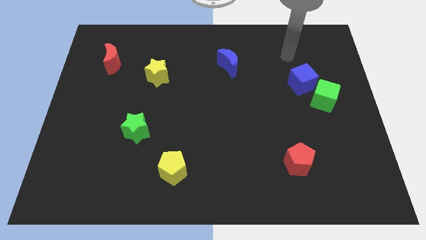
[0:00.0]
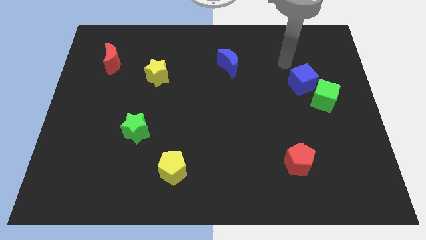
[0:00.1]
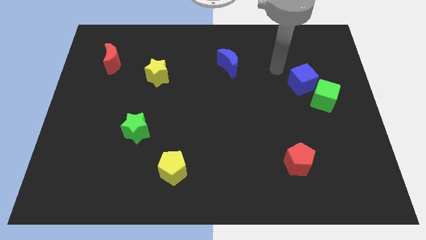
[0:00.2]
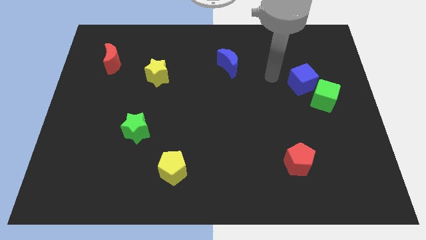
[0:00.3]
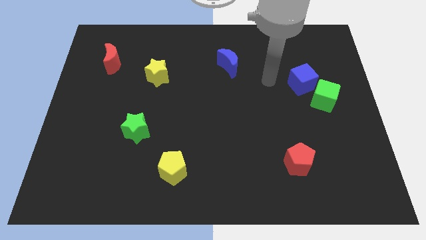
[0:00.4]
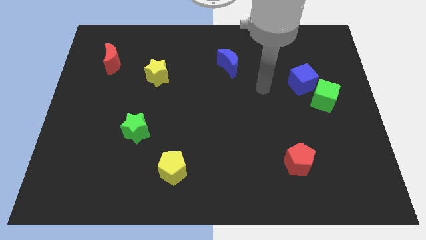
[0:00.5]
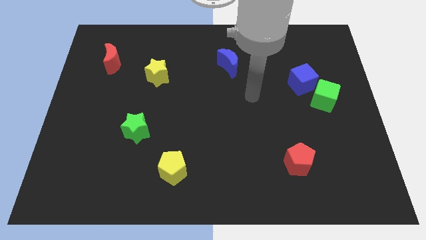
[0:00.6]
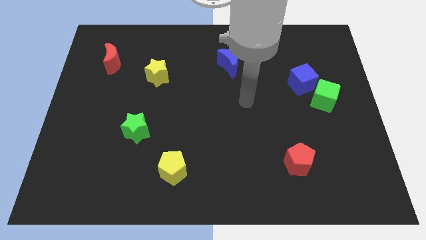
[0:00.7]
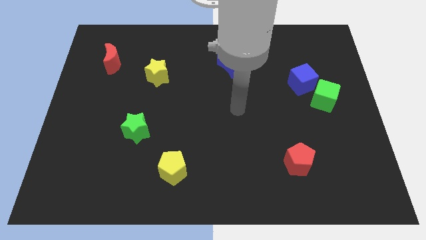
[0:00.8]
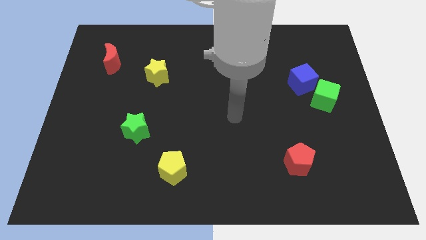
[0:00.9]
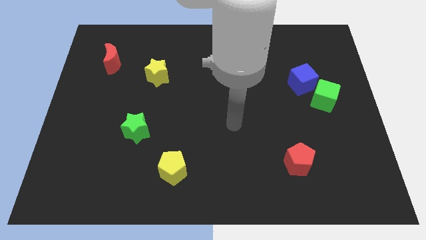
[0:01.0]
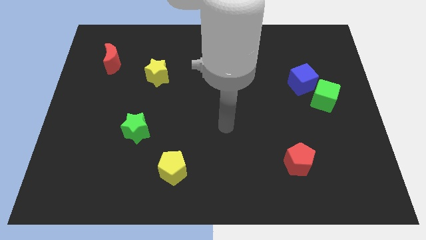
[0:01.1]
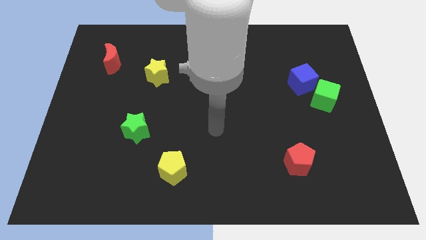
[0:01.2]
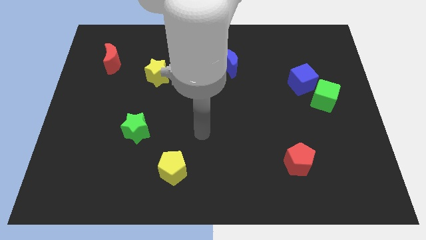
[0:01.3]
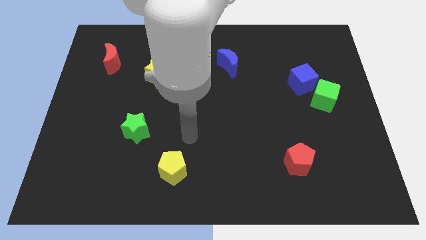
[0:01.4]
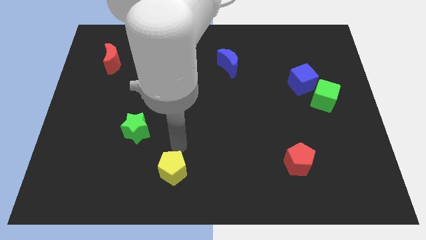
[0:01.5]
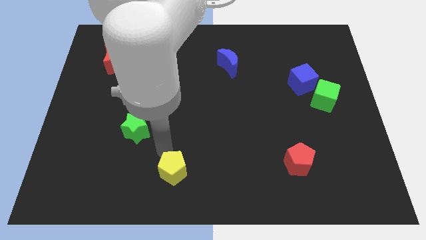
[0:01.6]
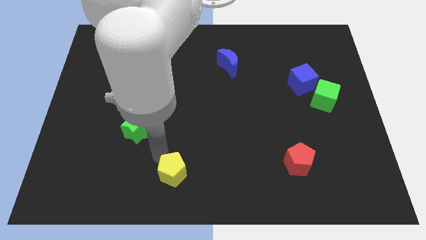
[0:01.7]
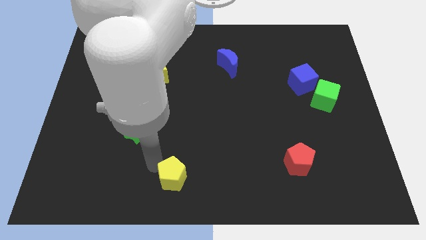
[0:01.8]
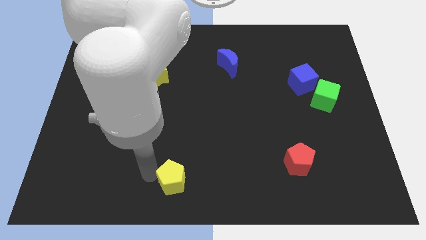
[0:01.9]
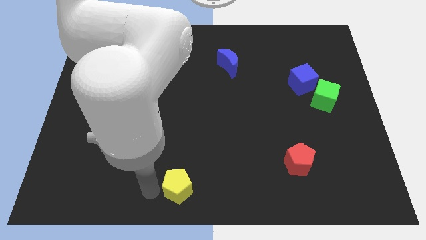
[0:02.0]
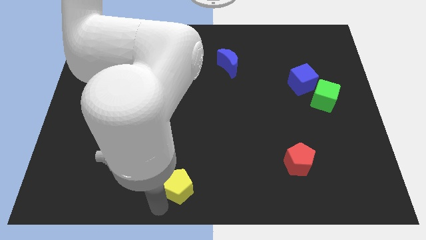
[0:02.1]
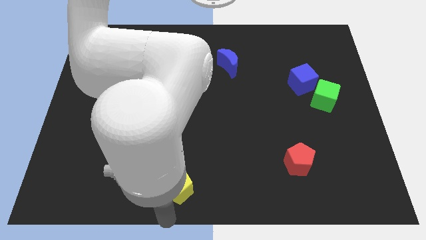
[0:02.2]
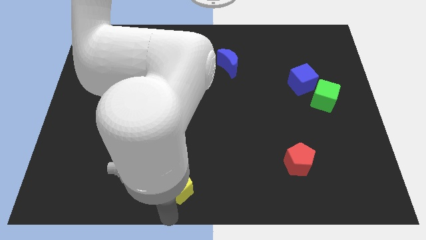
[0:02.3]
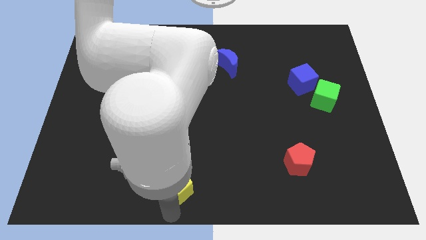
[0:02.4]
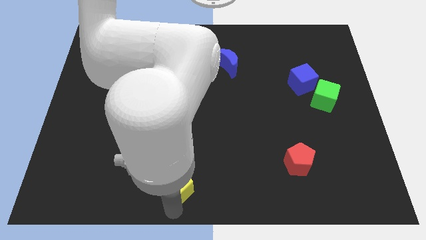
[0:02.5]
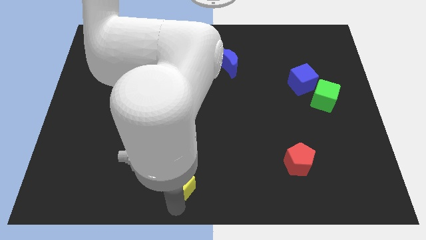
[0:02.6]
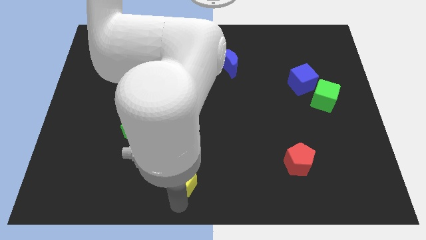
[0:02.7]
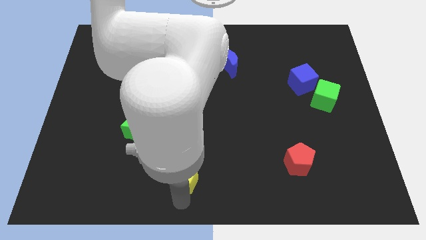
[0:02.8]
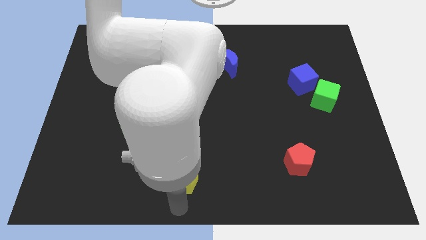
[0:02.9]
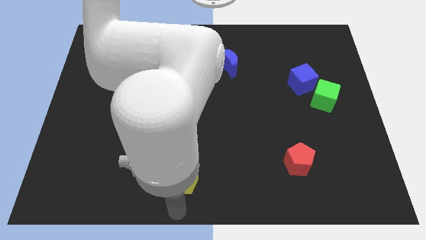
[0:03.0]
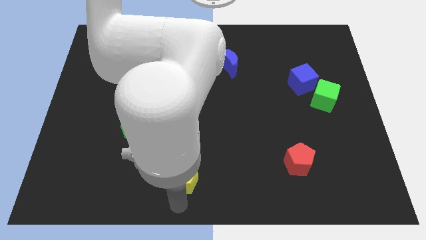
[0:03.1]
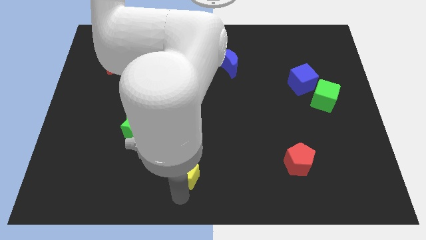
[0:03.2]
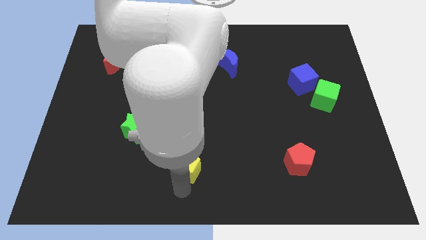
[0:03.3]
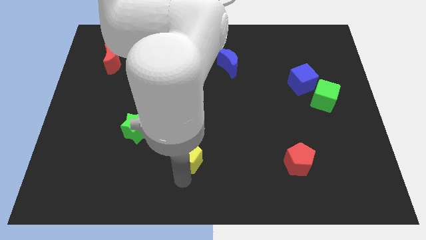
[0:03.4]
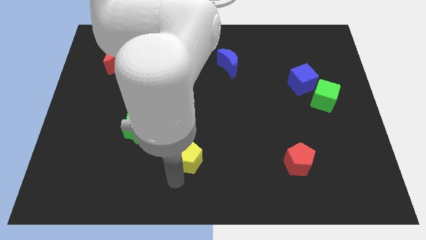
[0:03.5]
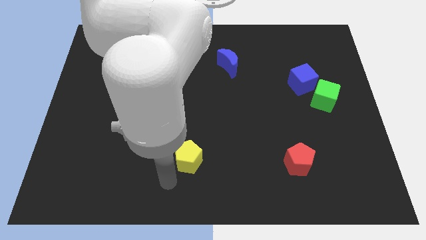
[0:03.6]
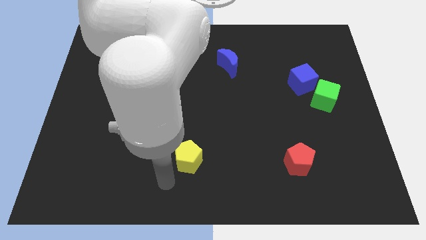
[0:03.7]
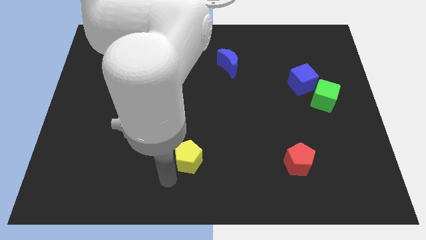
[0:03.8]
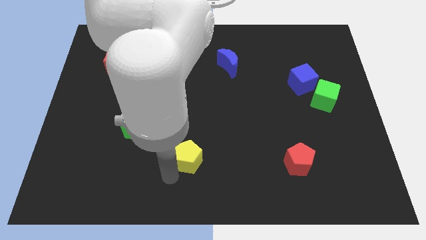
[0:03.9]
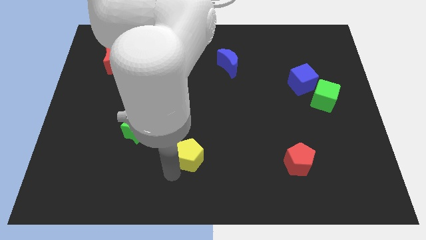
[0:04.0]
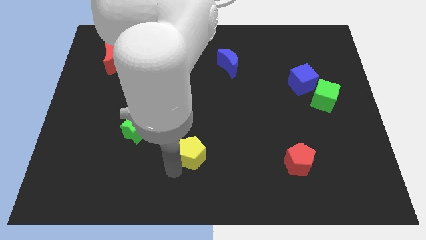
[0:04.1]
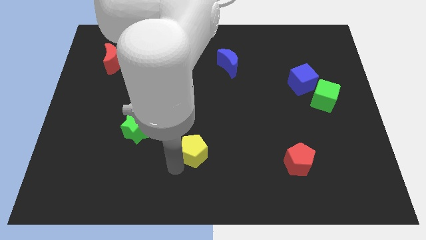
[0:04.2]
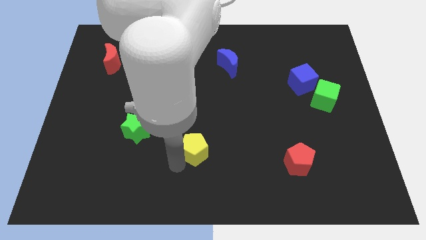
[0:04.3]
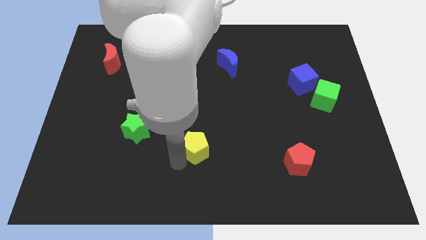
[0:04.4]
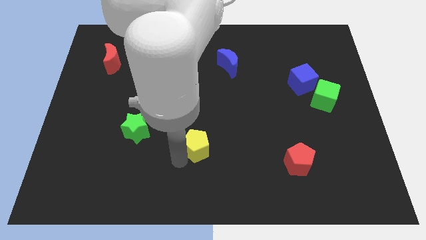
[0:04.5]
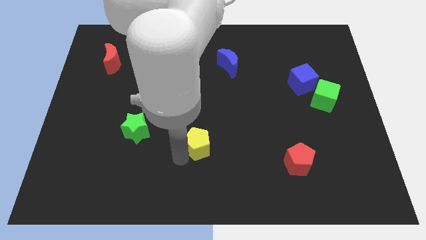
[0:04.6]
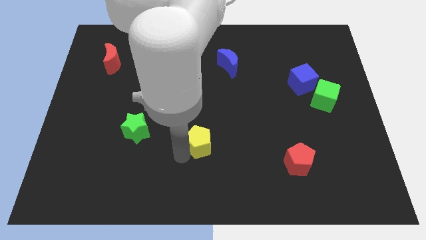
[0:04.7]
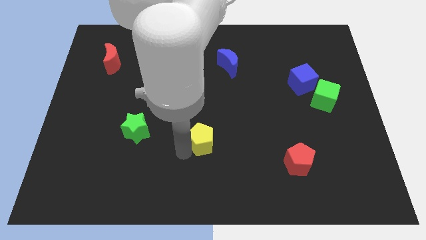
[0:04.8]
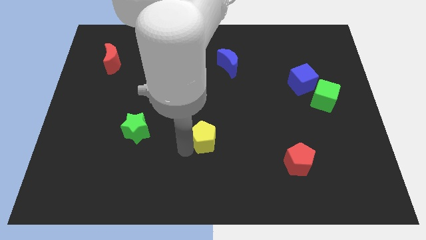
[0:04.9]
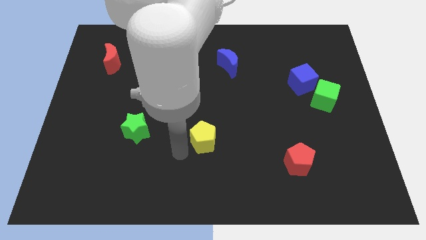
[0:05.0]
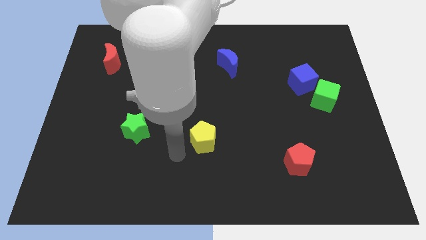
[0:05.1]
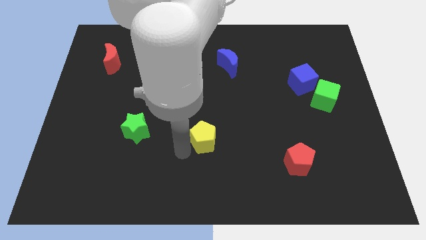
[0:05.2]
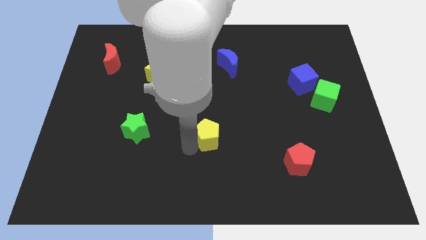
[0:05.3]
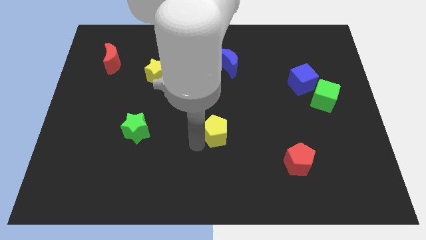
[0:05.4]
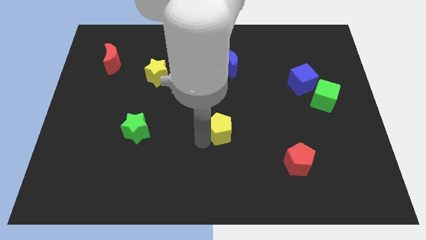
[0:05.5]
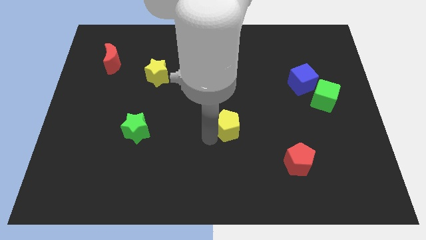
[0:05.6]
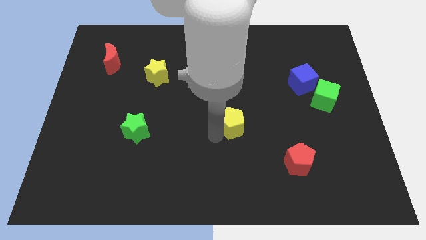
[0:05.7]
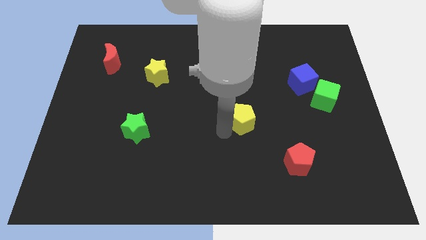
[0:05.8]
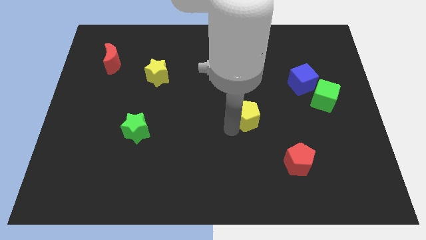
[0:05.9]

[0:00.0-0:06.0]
slide the yellow pentagon upwards and right

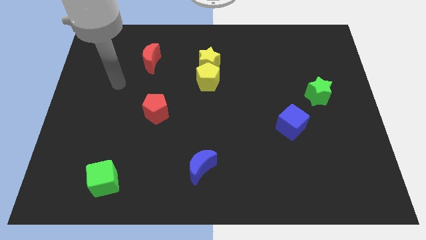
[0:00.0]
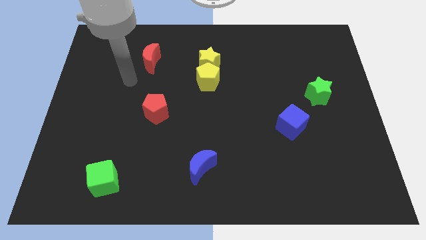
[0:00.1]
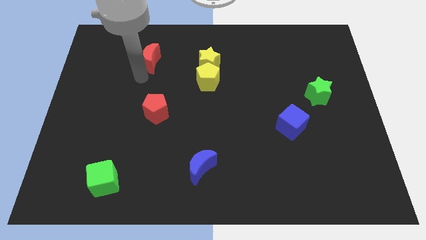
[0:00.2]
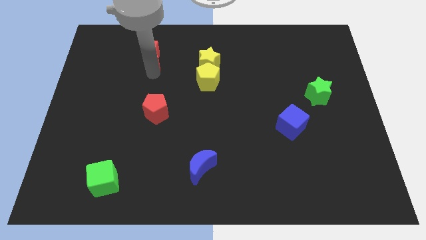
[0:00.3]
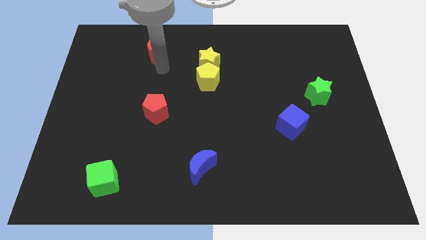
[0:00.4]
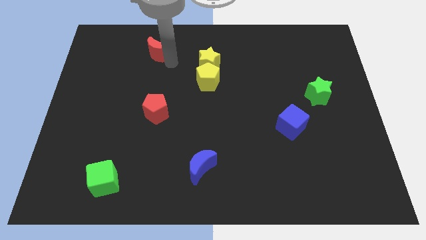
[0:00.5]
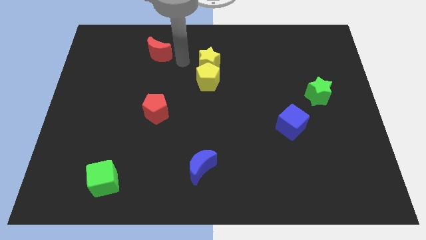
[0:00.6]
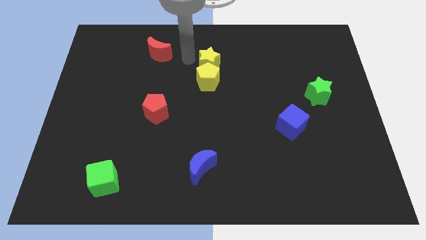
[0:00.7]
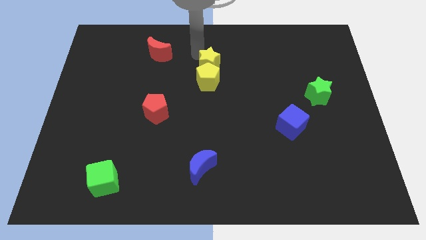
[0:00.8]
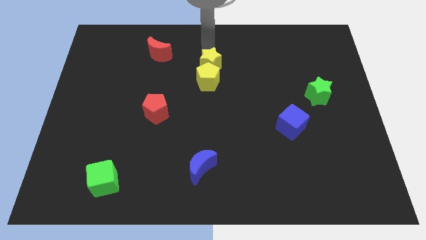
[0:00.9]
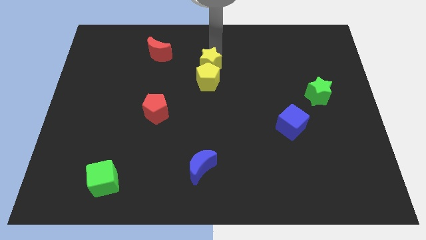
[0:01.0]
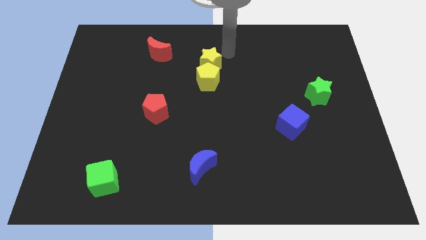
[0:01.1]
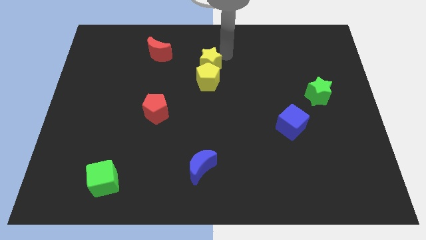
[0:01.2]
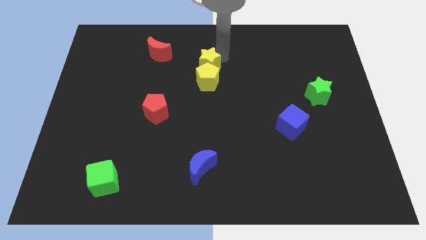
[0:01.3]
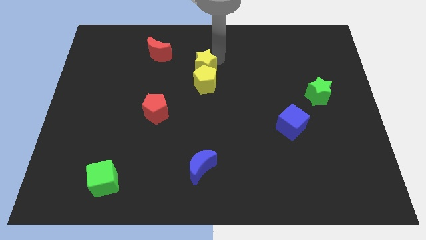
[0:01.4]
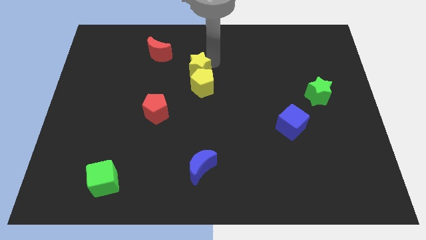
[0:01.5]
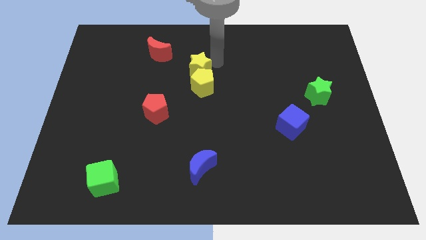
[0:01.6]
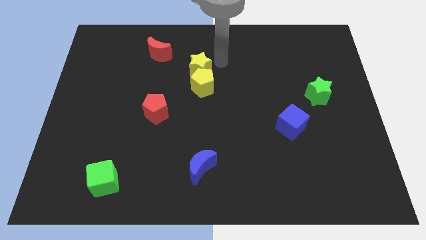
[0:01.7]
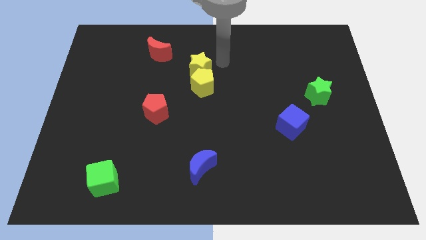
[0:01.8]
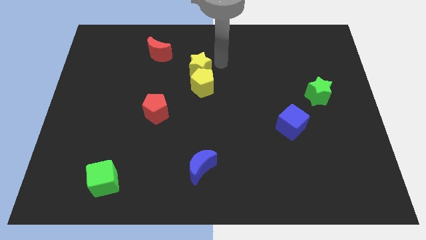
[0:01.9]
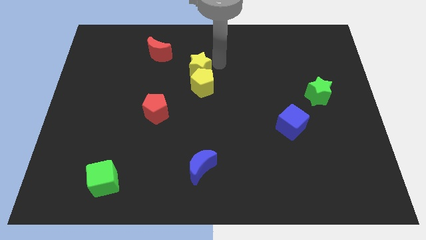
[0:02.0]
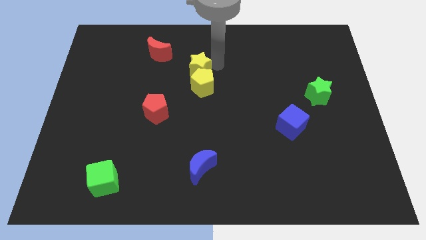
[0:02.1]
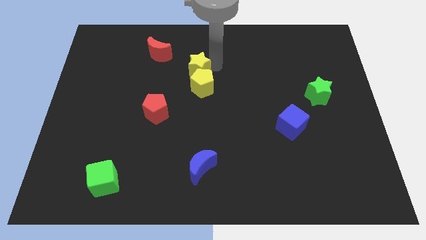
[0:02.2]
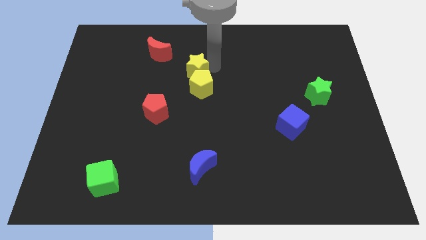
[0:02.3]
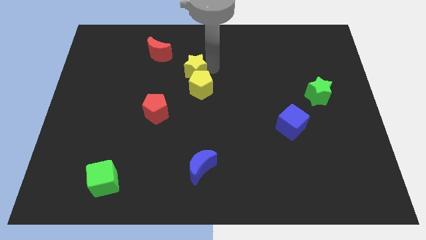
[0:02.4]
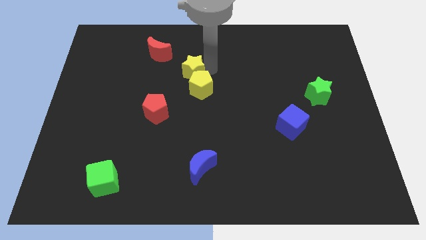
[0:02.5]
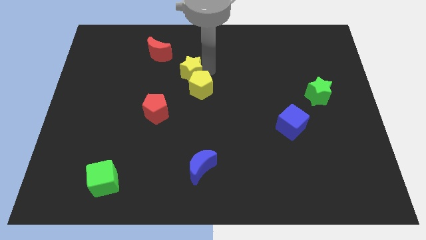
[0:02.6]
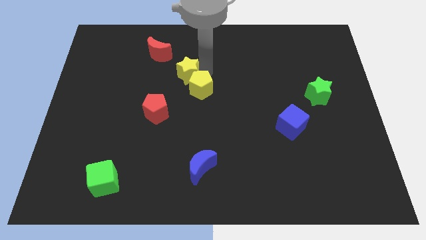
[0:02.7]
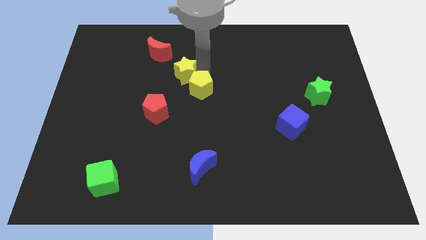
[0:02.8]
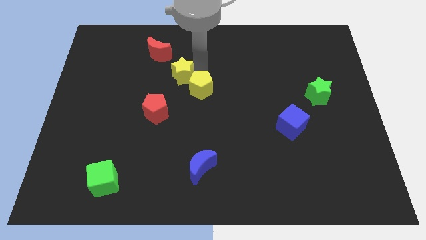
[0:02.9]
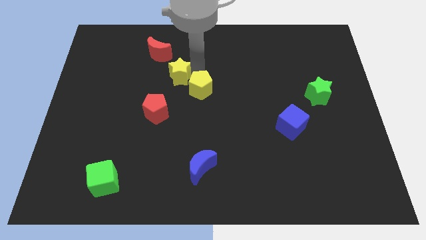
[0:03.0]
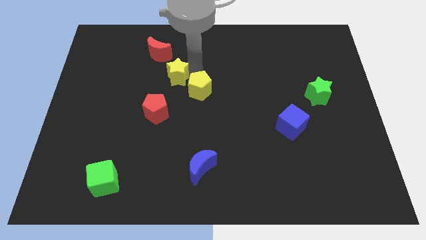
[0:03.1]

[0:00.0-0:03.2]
slide the yellow star a bit to the left
